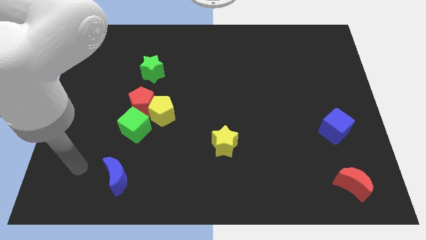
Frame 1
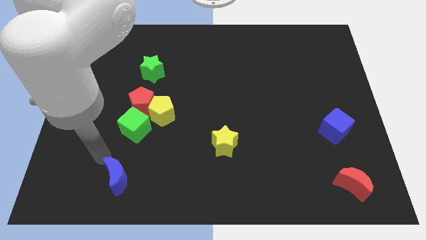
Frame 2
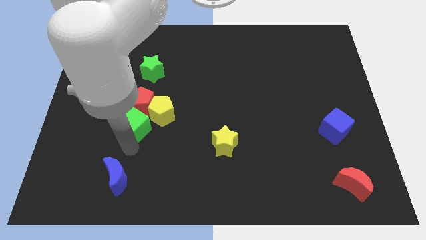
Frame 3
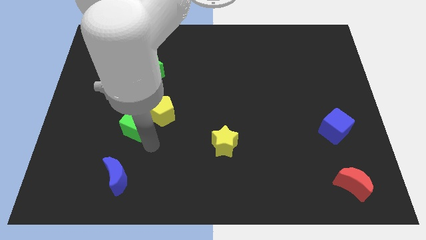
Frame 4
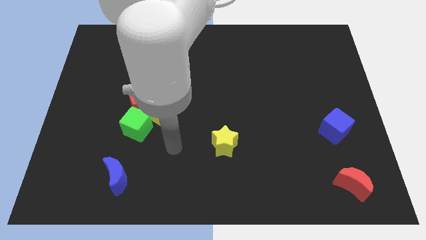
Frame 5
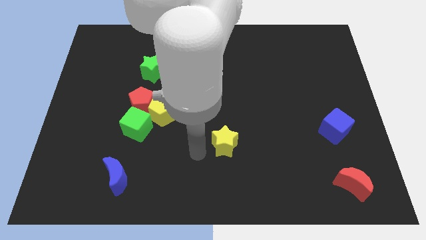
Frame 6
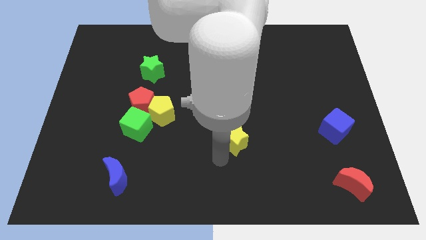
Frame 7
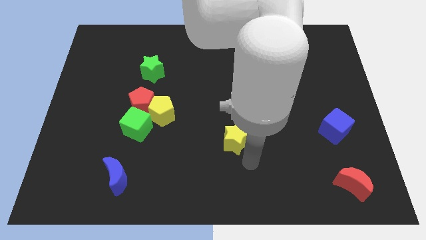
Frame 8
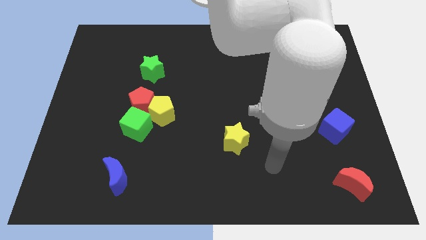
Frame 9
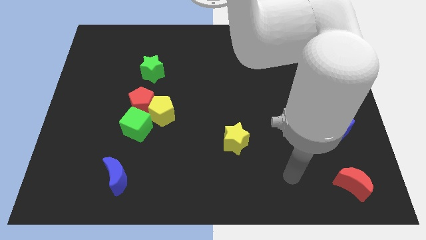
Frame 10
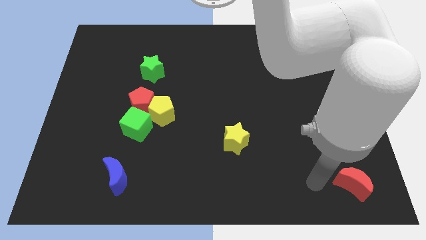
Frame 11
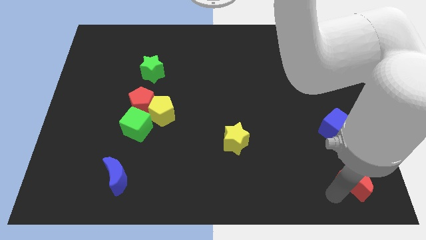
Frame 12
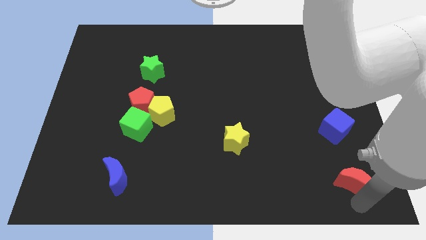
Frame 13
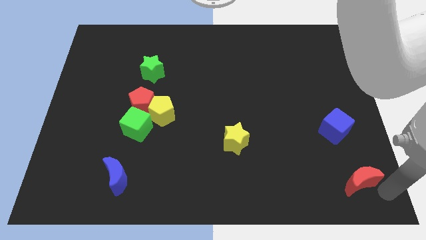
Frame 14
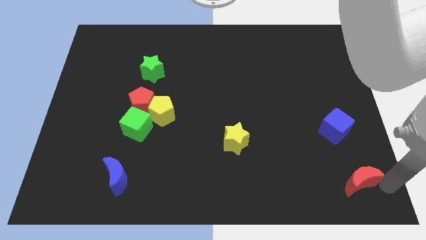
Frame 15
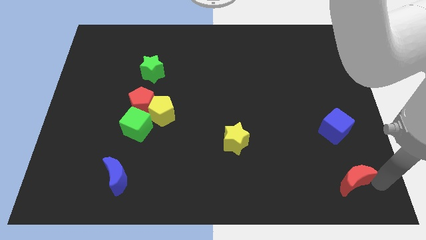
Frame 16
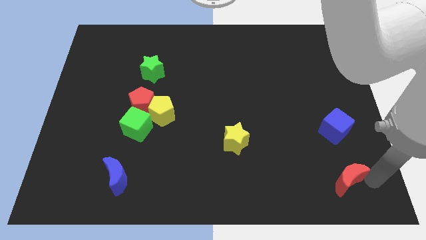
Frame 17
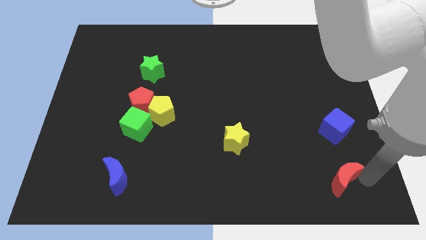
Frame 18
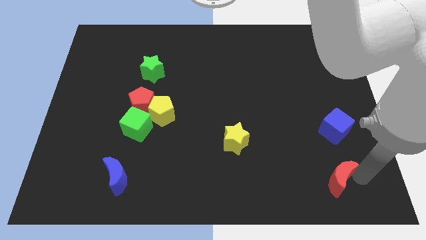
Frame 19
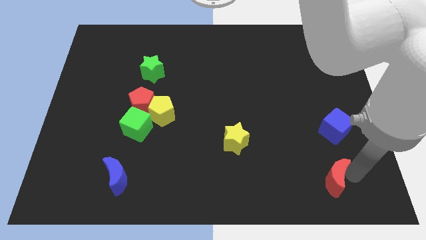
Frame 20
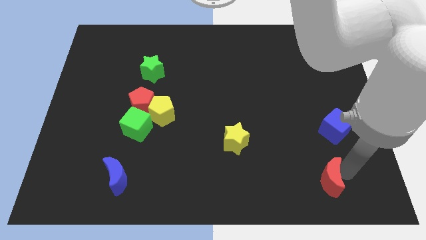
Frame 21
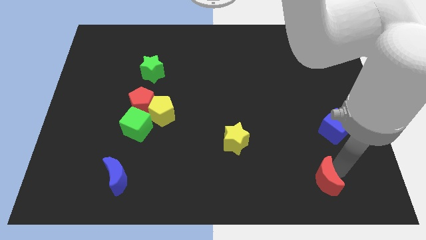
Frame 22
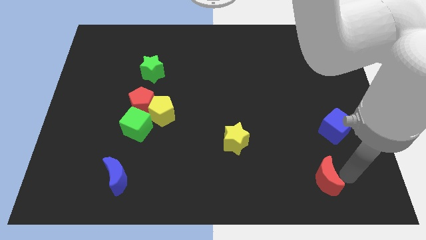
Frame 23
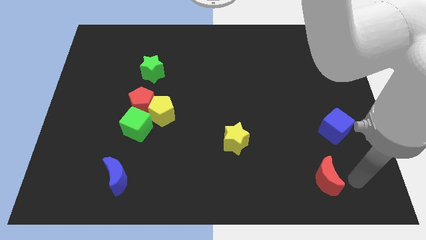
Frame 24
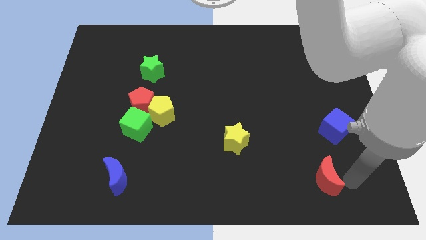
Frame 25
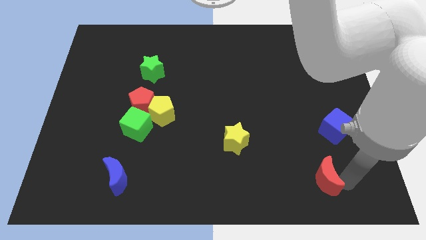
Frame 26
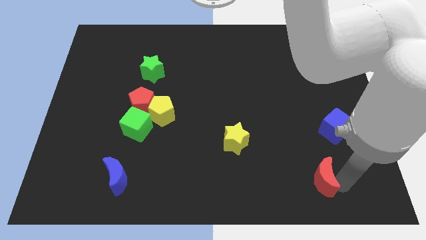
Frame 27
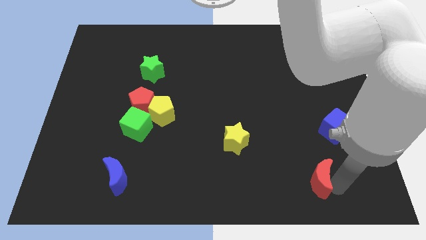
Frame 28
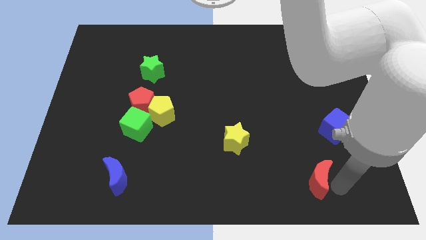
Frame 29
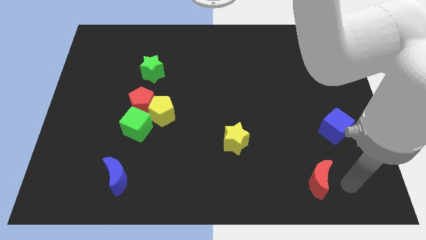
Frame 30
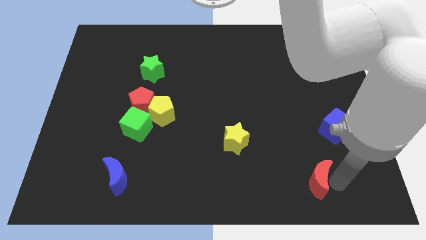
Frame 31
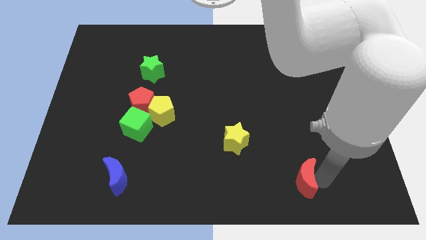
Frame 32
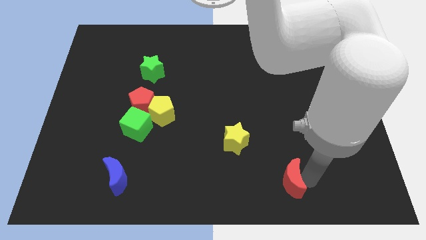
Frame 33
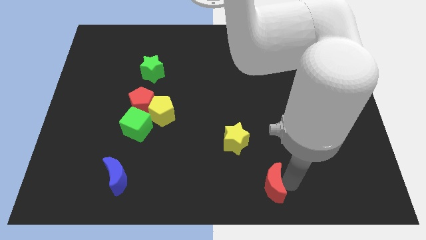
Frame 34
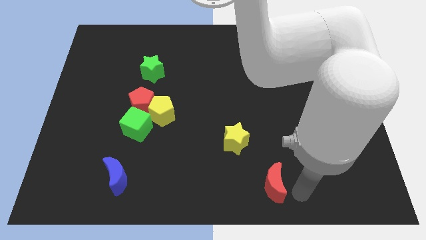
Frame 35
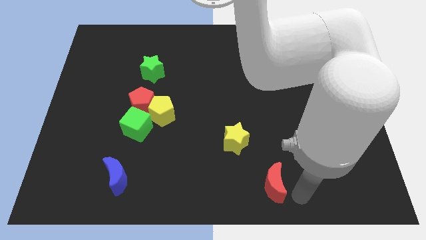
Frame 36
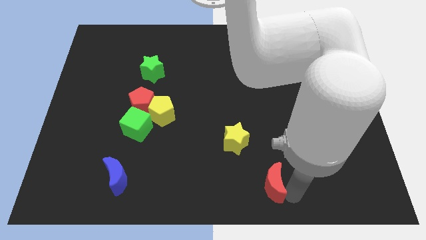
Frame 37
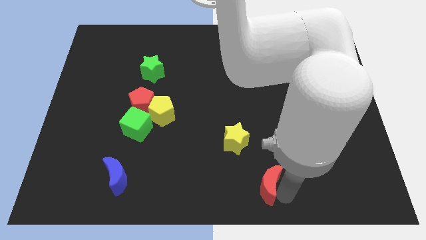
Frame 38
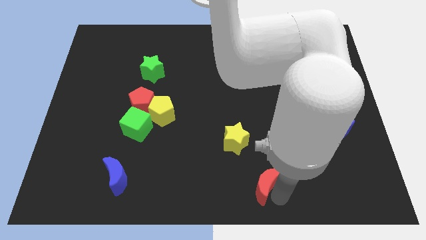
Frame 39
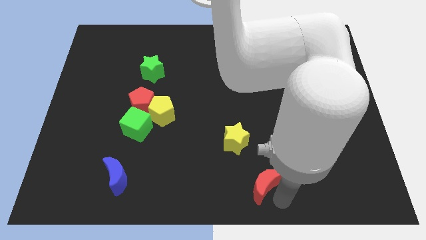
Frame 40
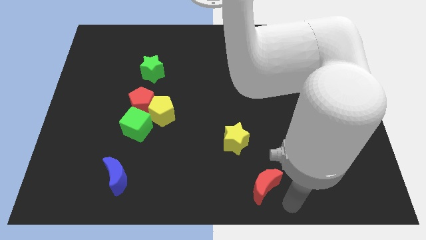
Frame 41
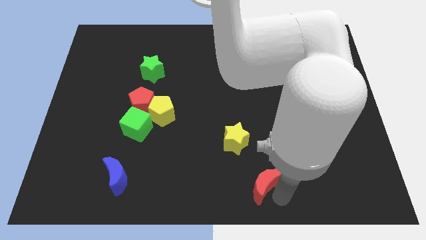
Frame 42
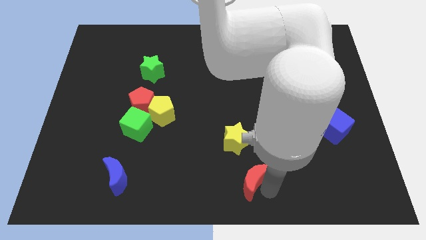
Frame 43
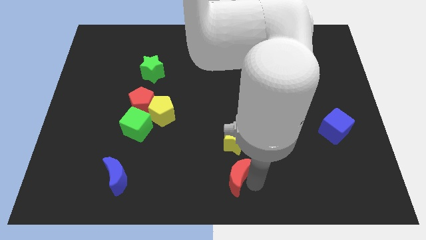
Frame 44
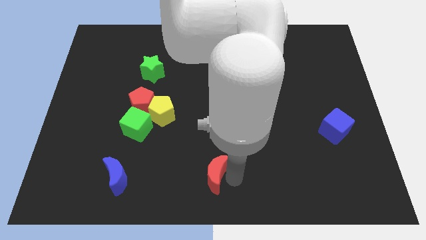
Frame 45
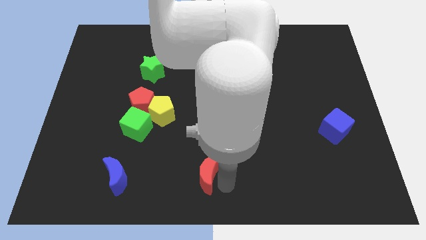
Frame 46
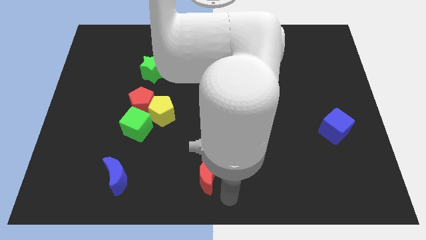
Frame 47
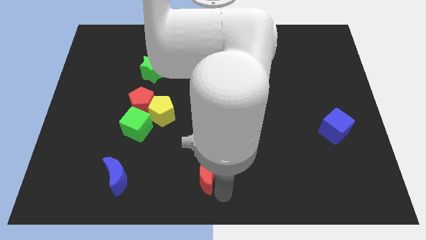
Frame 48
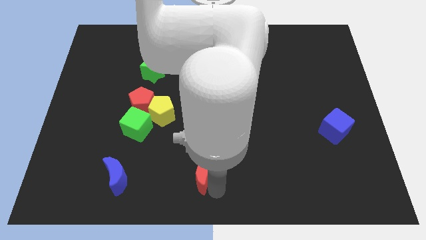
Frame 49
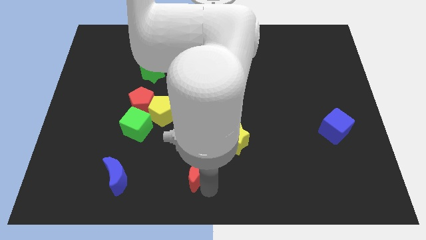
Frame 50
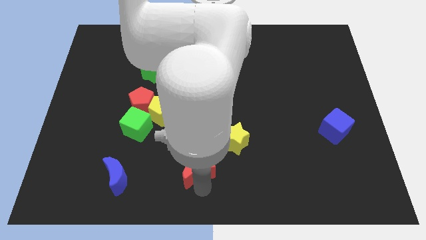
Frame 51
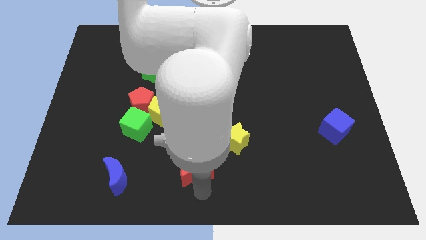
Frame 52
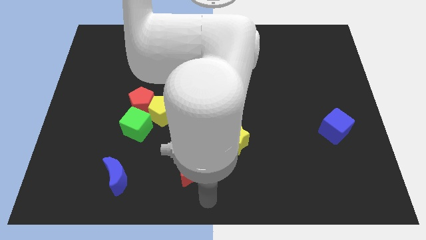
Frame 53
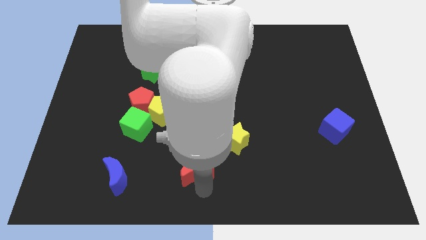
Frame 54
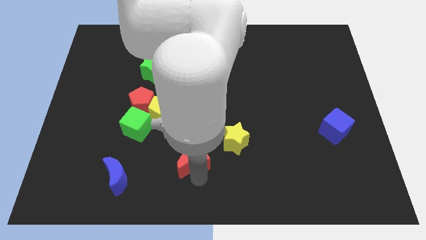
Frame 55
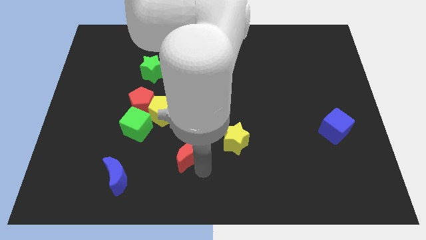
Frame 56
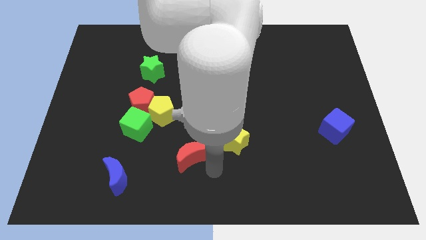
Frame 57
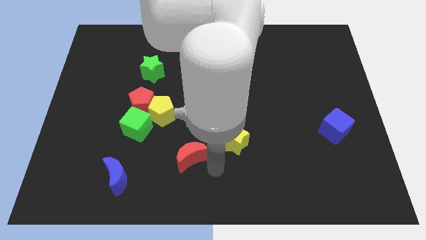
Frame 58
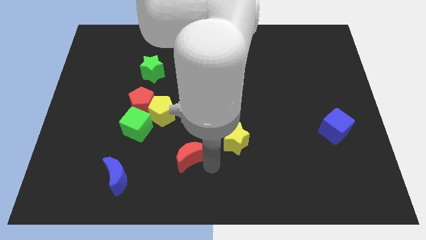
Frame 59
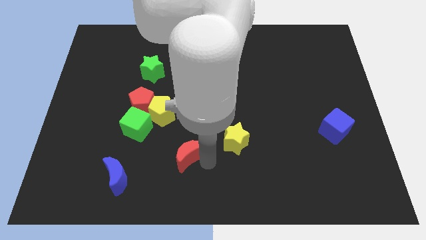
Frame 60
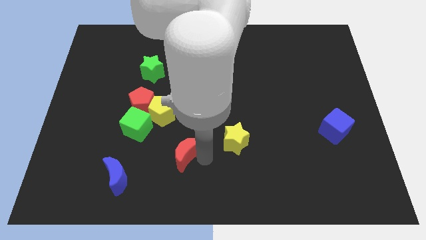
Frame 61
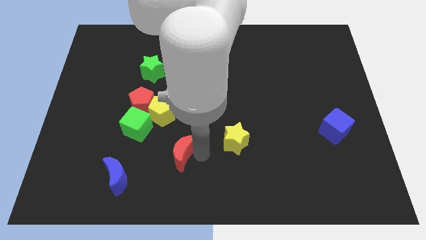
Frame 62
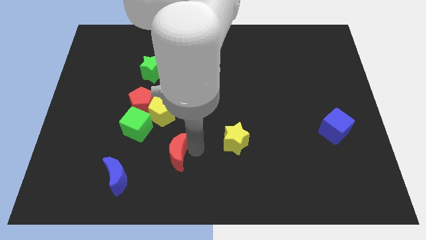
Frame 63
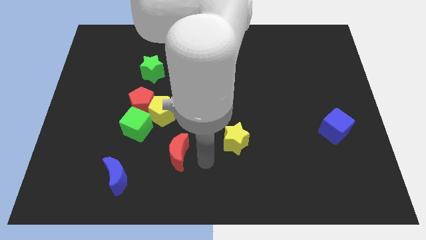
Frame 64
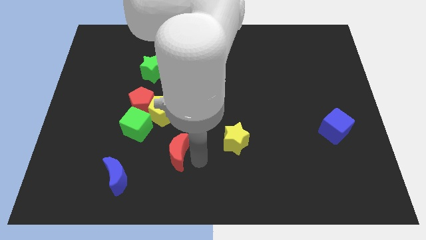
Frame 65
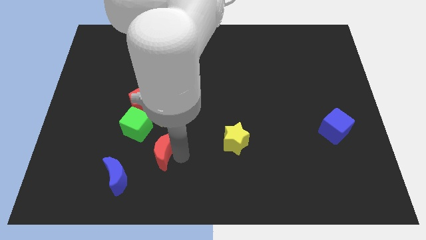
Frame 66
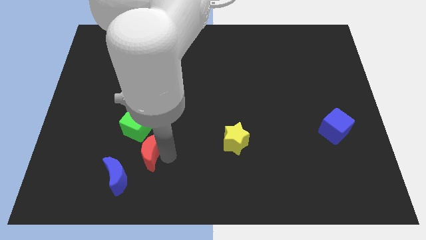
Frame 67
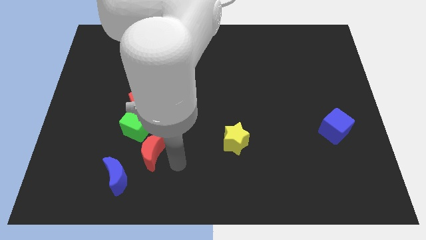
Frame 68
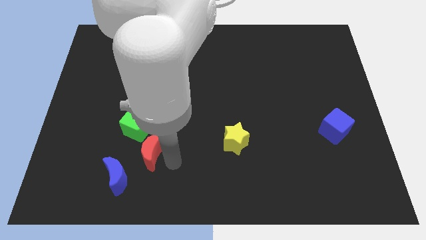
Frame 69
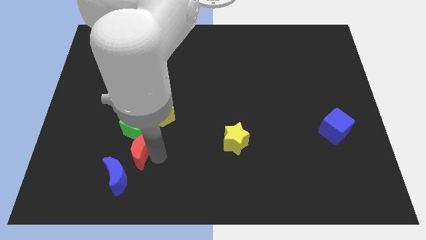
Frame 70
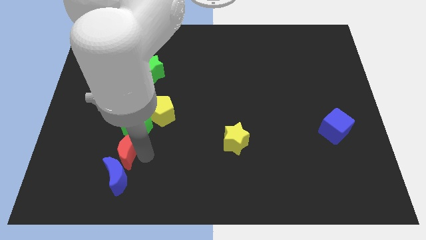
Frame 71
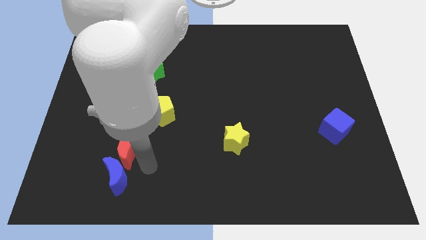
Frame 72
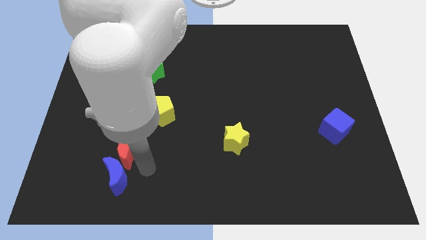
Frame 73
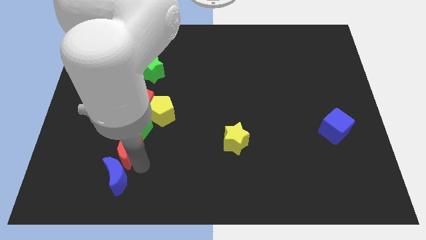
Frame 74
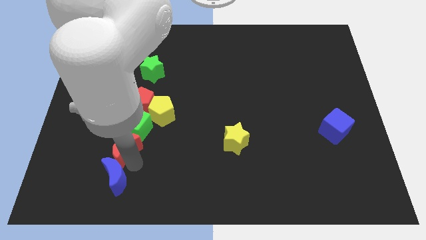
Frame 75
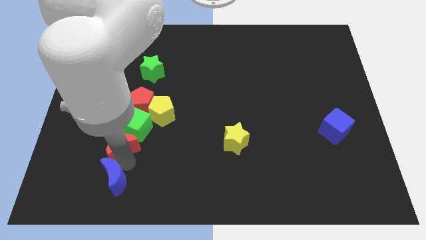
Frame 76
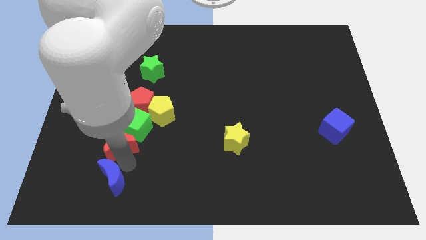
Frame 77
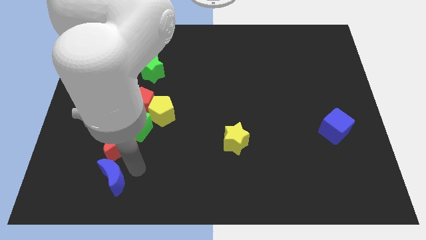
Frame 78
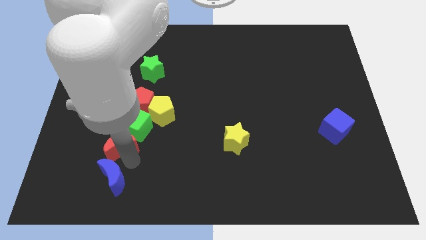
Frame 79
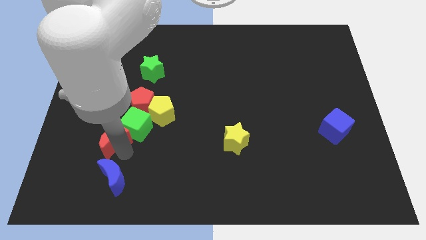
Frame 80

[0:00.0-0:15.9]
move the red moon to the bottom left of the red pentagon
